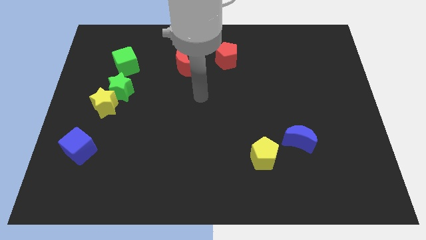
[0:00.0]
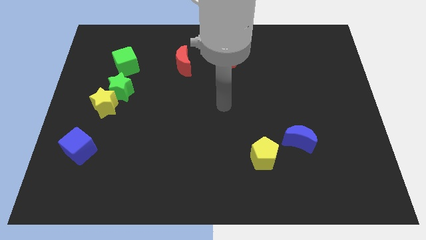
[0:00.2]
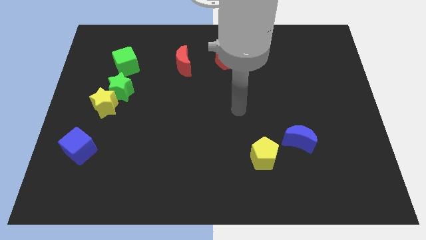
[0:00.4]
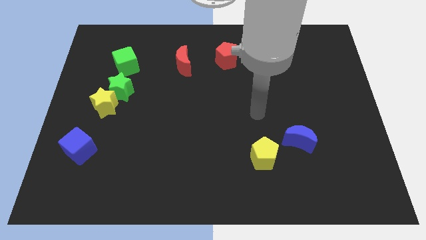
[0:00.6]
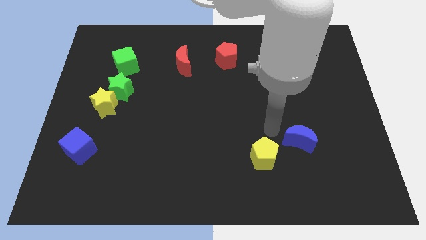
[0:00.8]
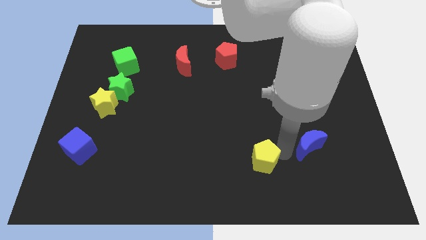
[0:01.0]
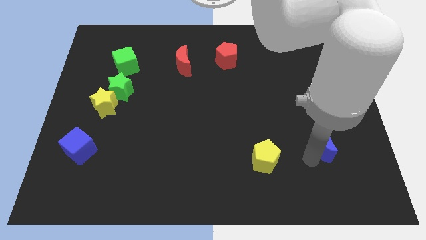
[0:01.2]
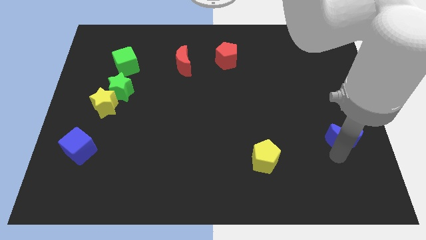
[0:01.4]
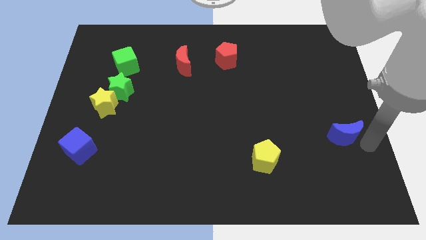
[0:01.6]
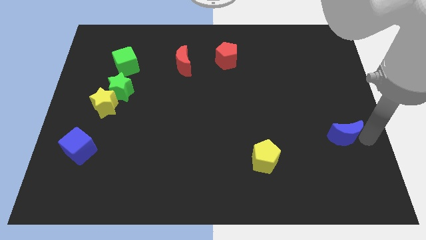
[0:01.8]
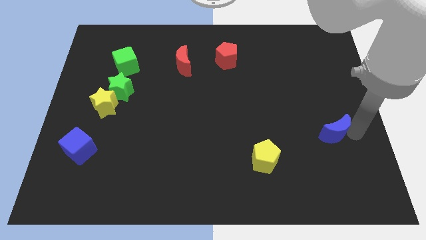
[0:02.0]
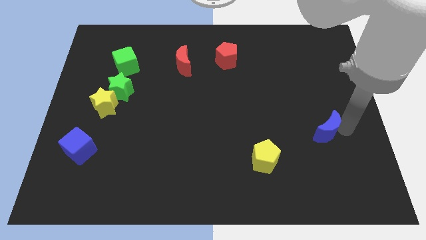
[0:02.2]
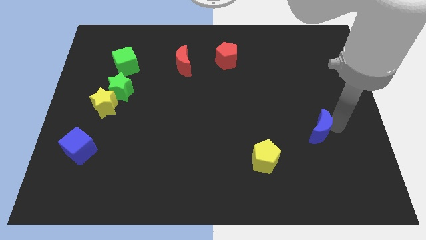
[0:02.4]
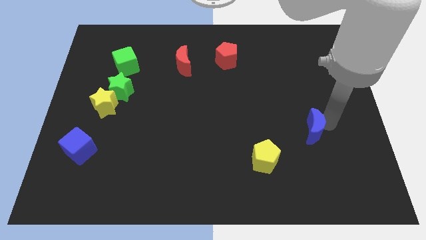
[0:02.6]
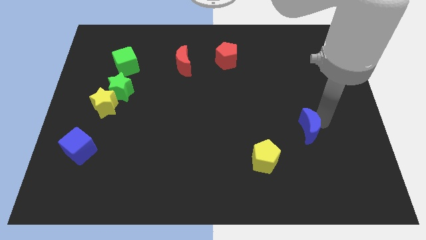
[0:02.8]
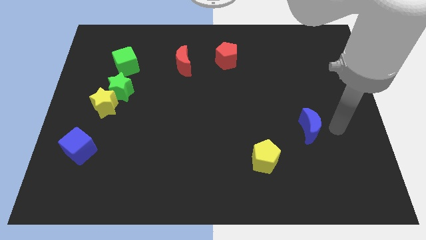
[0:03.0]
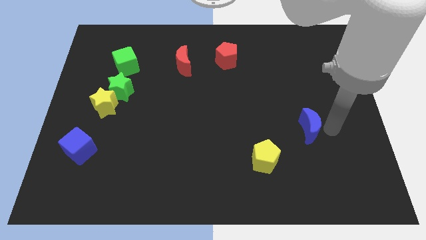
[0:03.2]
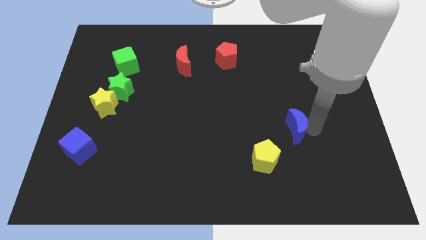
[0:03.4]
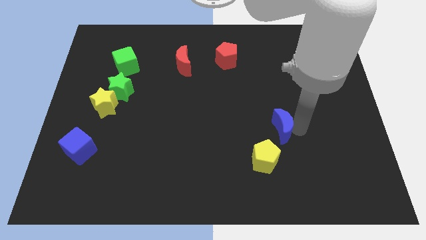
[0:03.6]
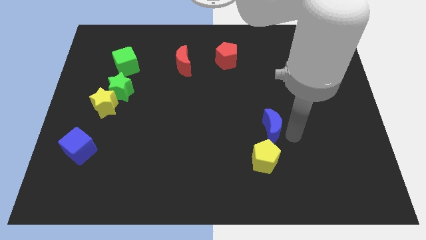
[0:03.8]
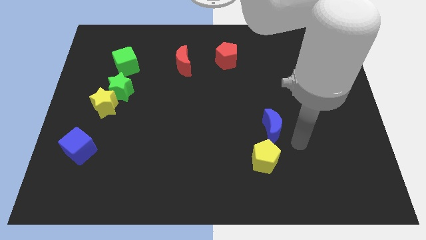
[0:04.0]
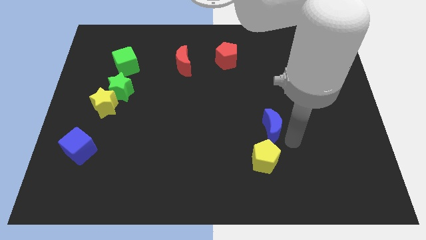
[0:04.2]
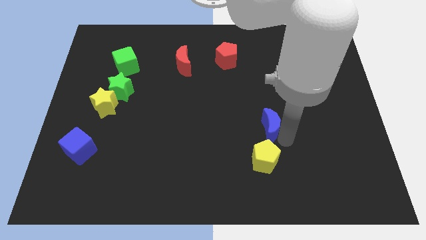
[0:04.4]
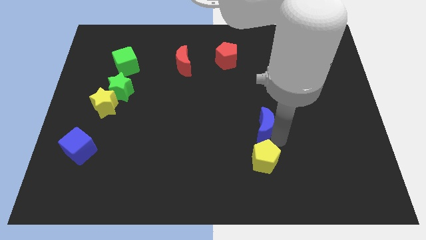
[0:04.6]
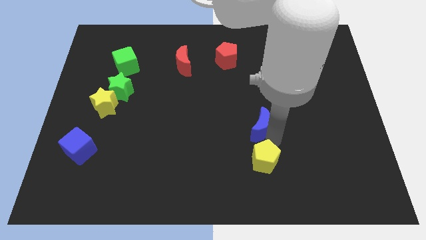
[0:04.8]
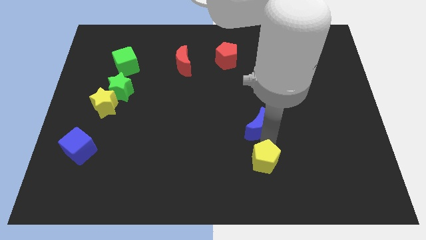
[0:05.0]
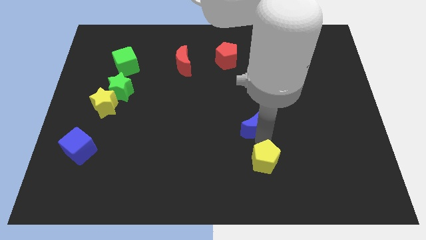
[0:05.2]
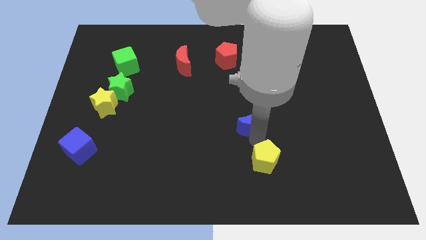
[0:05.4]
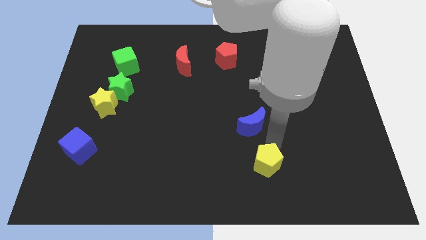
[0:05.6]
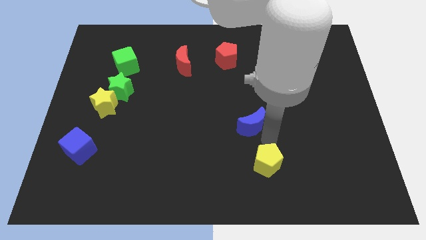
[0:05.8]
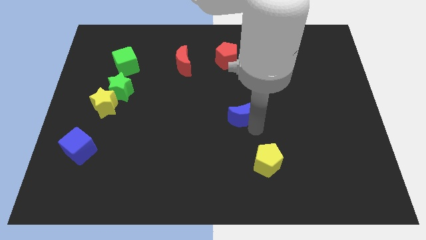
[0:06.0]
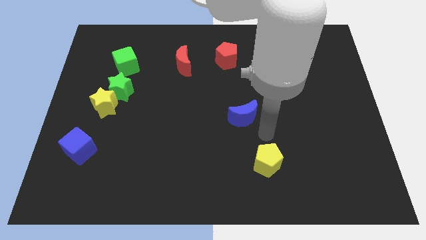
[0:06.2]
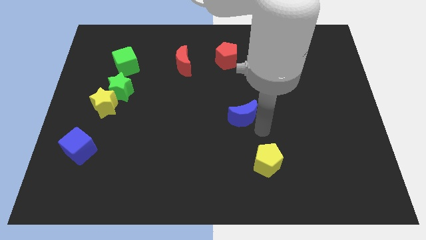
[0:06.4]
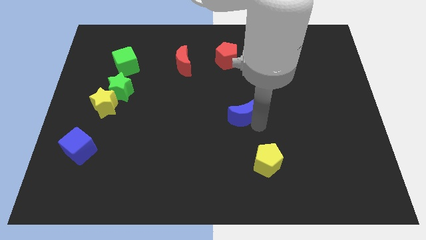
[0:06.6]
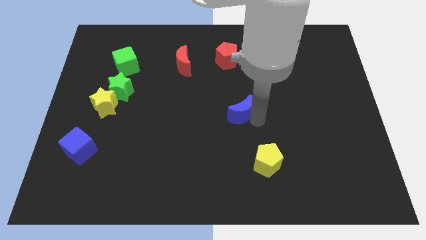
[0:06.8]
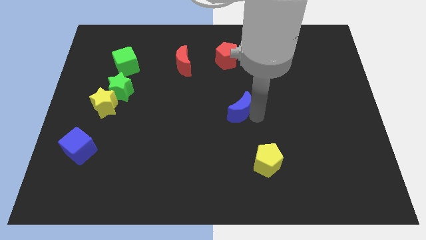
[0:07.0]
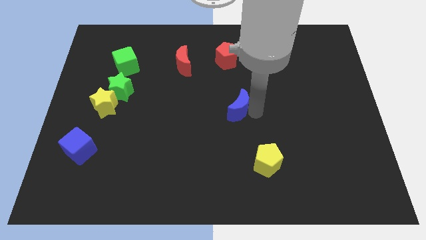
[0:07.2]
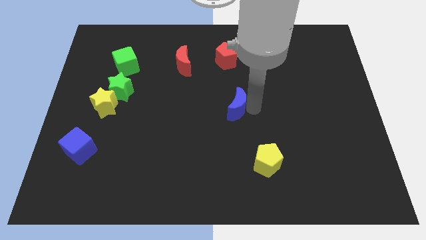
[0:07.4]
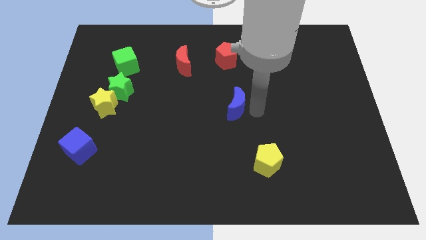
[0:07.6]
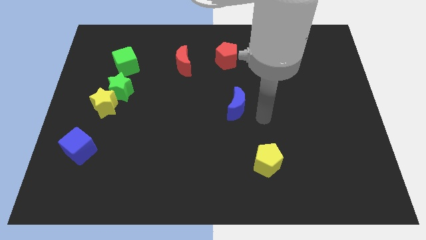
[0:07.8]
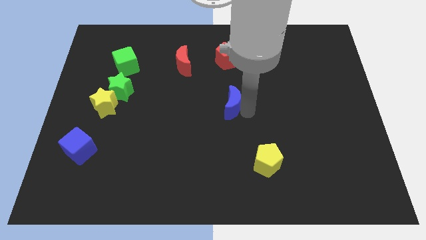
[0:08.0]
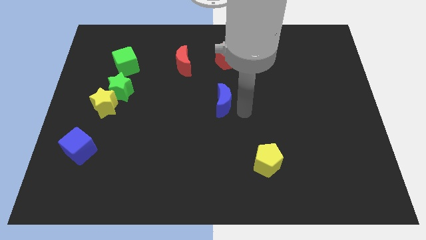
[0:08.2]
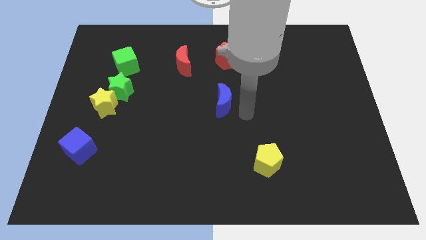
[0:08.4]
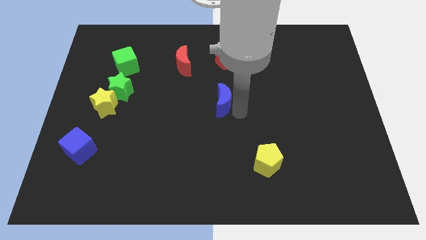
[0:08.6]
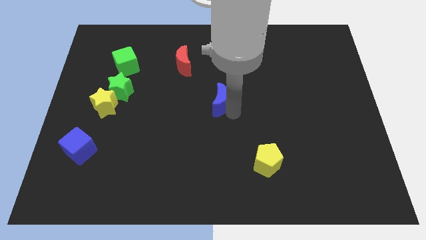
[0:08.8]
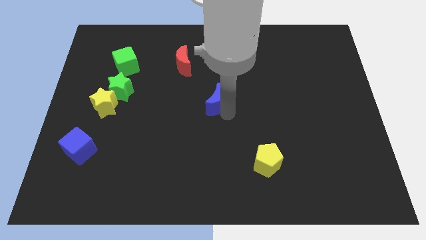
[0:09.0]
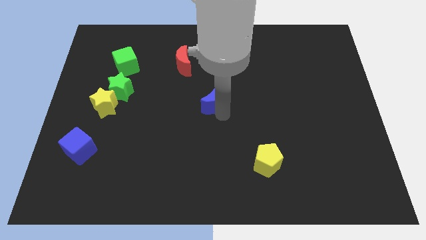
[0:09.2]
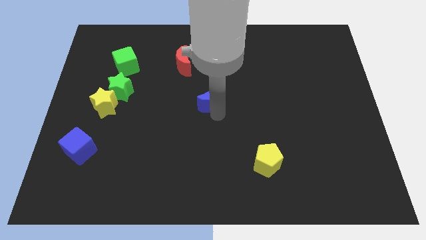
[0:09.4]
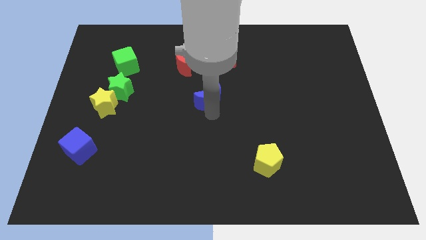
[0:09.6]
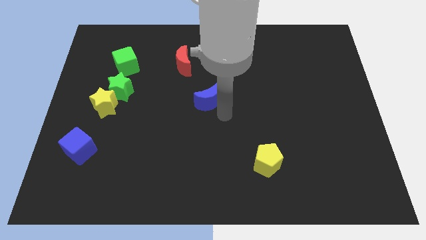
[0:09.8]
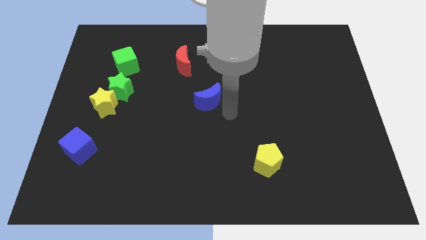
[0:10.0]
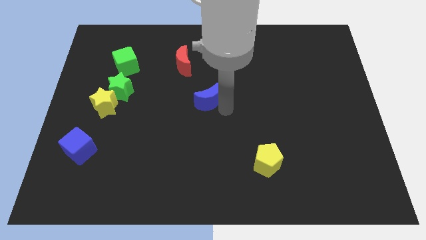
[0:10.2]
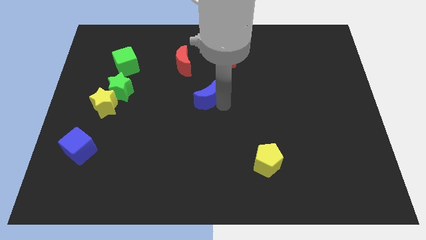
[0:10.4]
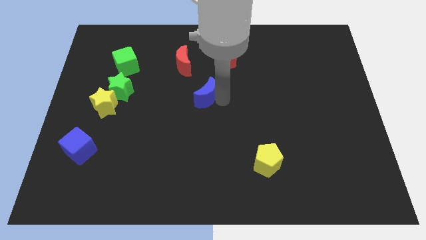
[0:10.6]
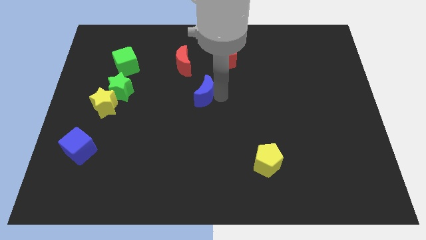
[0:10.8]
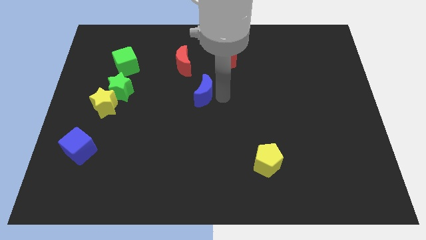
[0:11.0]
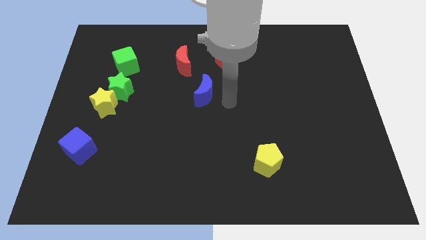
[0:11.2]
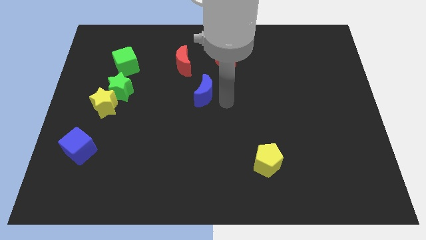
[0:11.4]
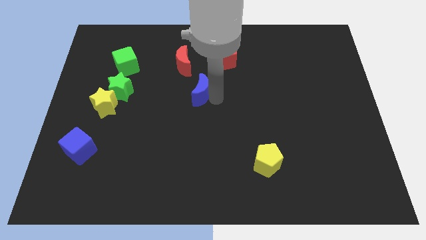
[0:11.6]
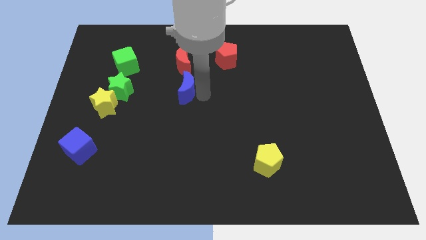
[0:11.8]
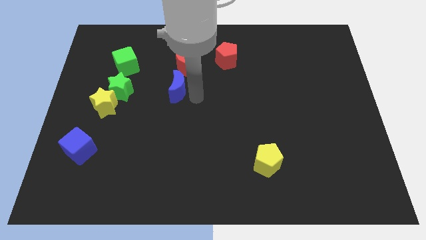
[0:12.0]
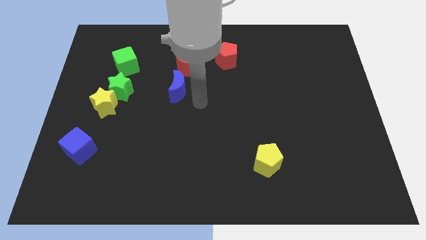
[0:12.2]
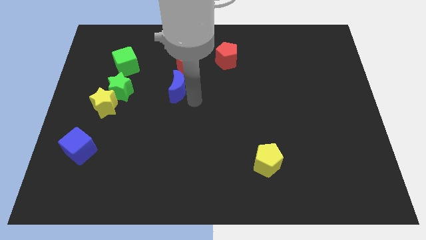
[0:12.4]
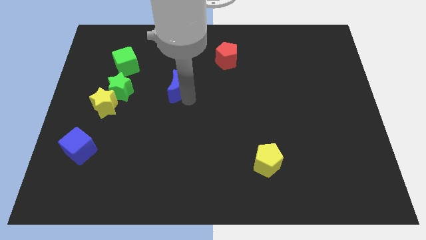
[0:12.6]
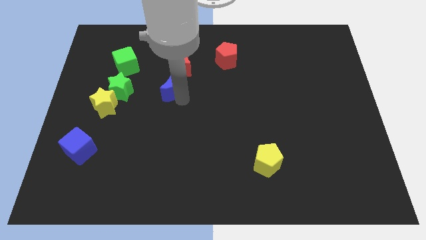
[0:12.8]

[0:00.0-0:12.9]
push the blue moon to the bottom left side of the red moon

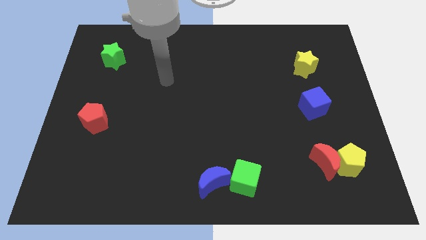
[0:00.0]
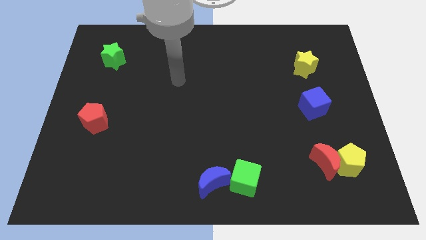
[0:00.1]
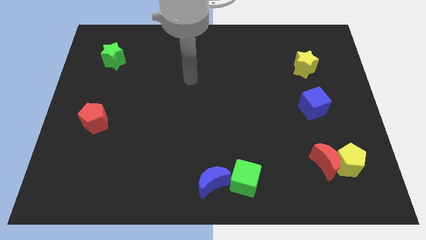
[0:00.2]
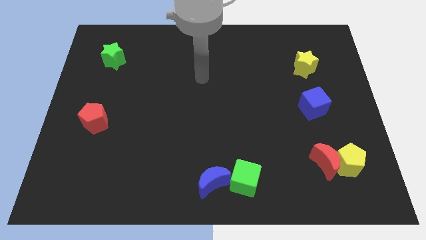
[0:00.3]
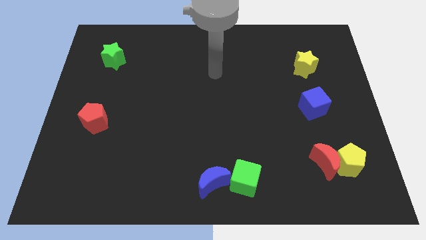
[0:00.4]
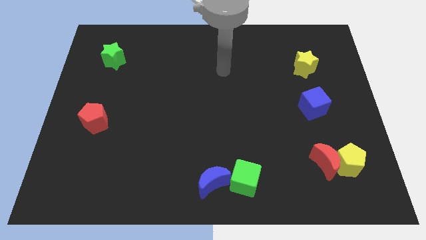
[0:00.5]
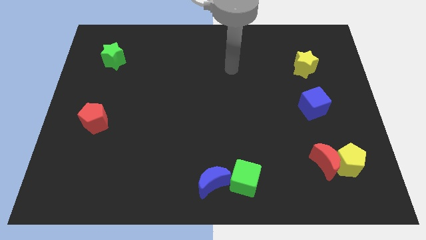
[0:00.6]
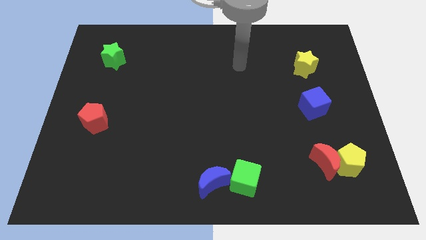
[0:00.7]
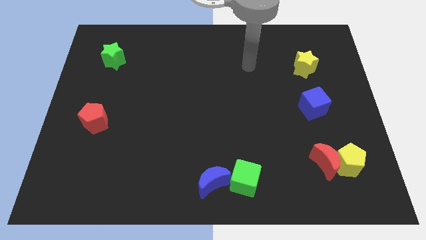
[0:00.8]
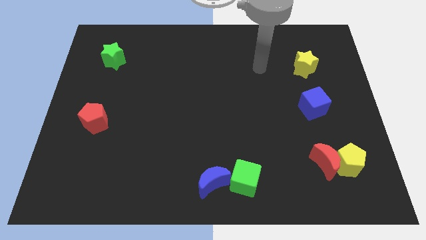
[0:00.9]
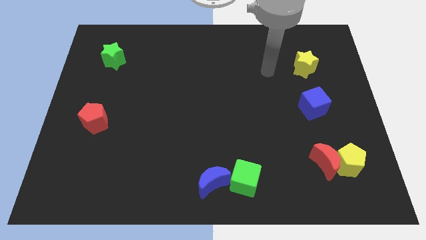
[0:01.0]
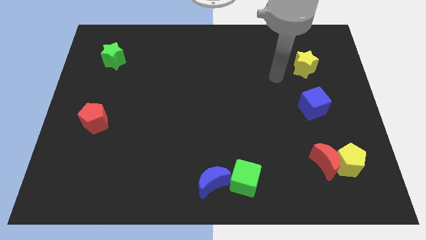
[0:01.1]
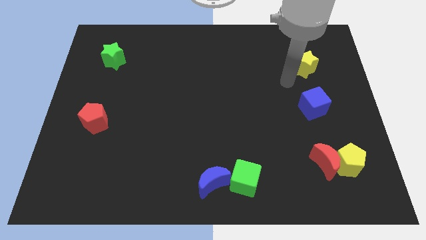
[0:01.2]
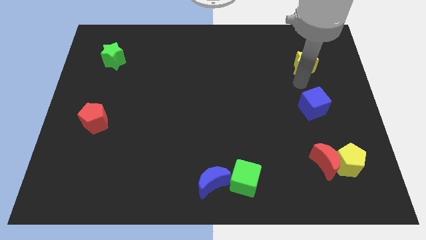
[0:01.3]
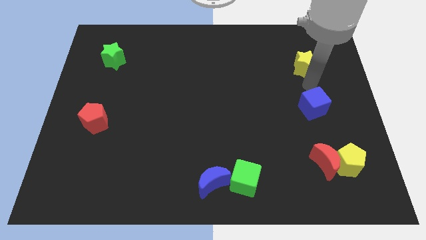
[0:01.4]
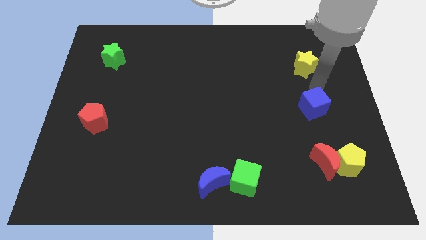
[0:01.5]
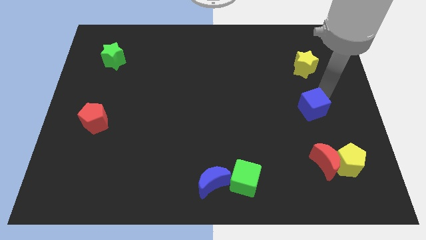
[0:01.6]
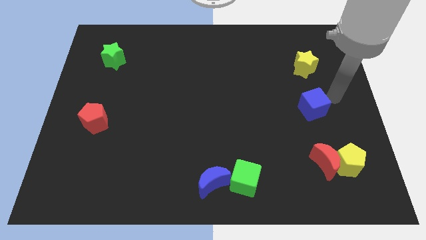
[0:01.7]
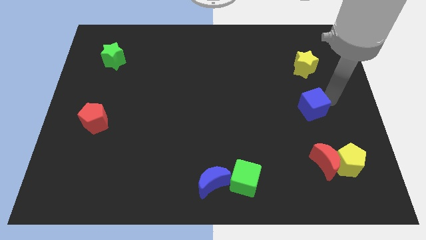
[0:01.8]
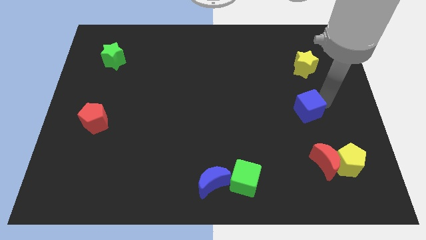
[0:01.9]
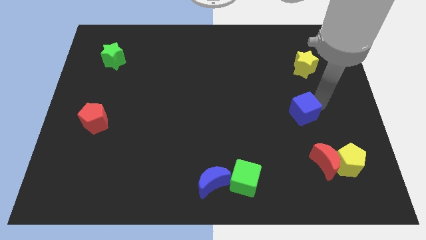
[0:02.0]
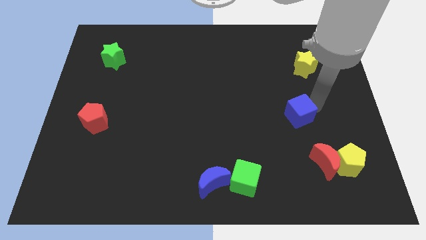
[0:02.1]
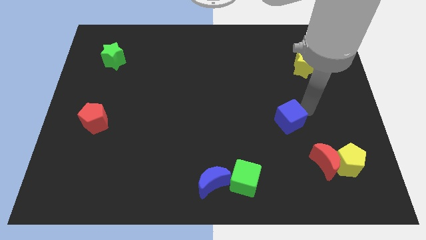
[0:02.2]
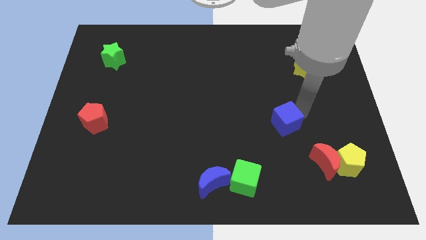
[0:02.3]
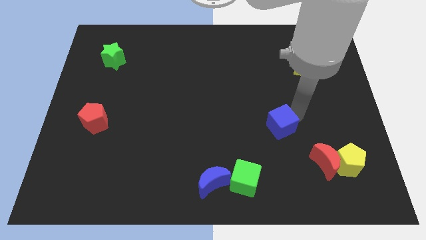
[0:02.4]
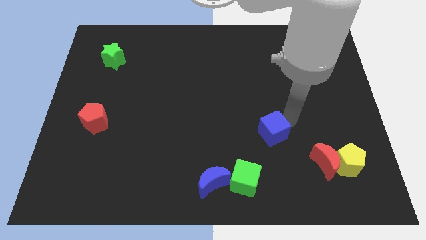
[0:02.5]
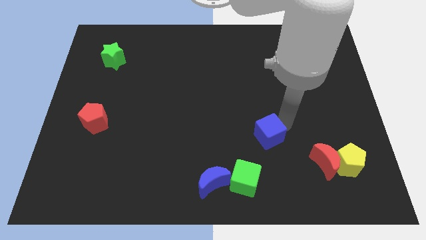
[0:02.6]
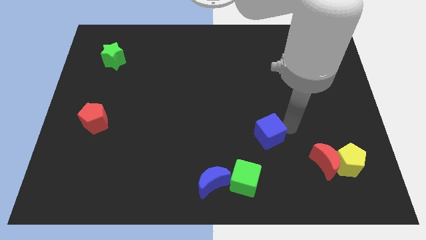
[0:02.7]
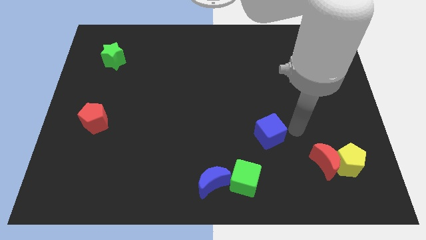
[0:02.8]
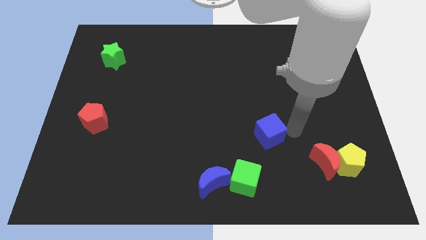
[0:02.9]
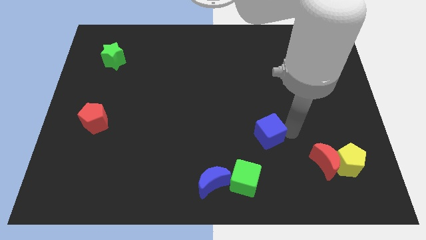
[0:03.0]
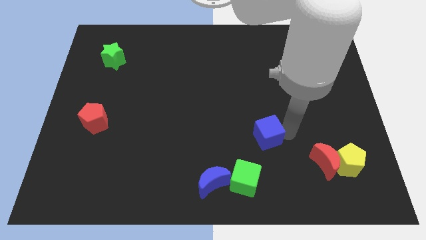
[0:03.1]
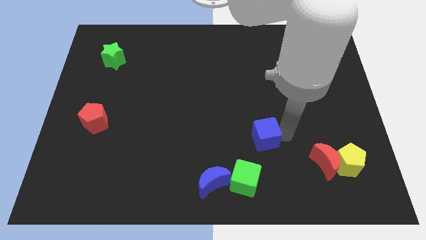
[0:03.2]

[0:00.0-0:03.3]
move the blue cube to the top of the green cube
